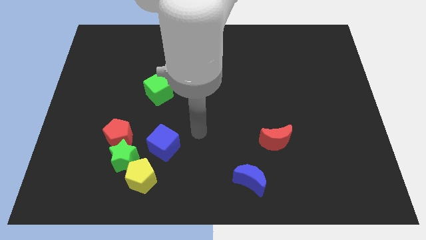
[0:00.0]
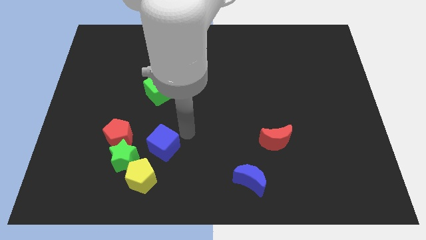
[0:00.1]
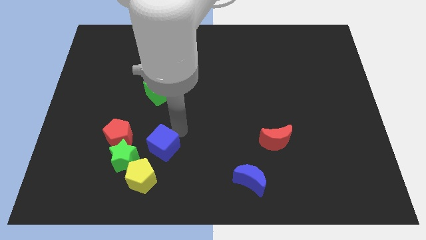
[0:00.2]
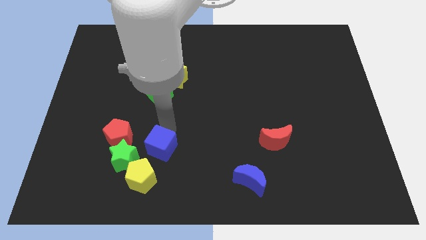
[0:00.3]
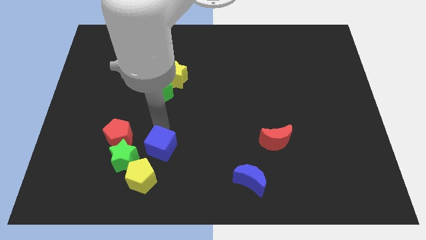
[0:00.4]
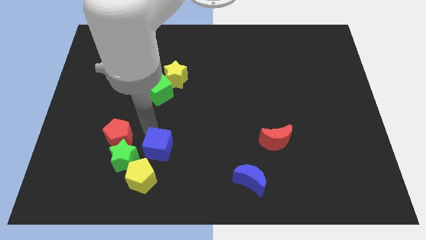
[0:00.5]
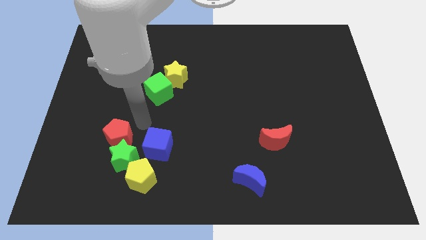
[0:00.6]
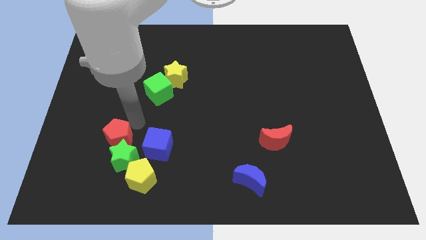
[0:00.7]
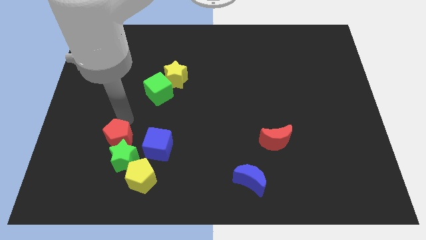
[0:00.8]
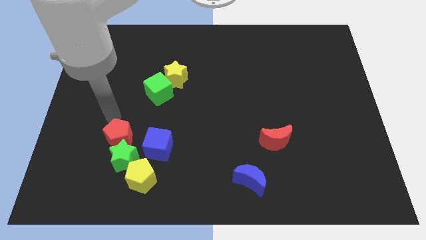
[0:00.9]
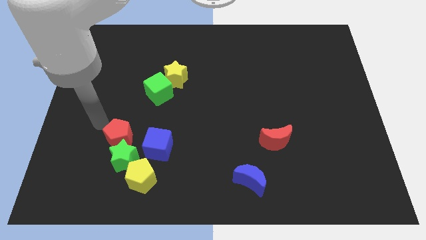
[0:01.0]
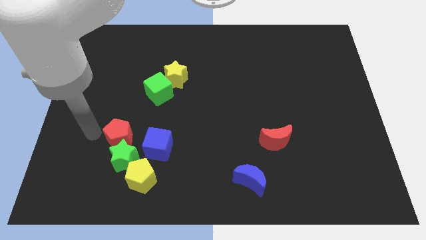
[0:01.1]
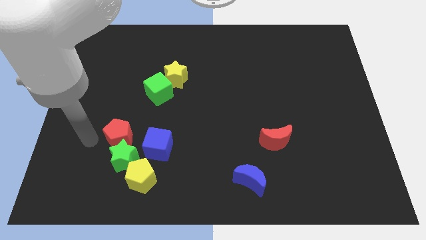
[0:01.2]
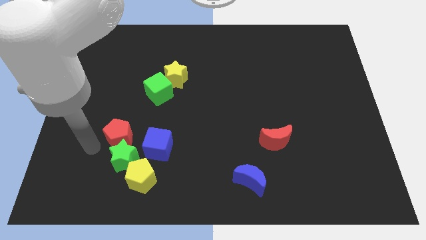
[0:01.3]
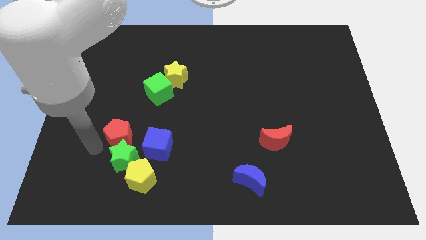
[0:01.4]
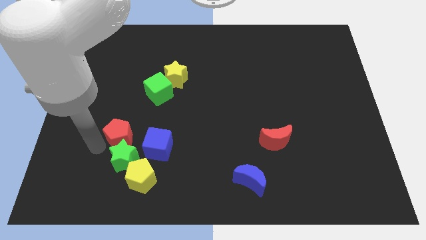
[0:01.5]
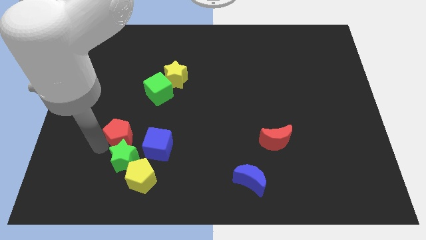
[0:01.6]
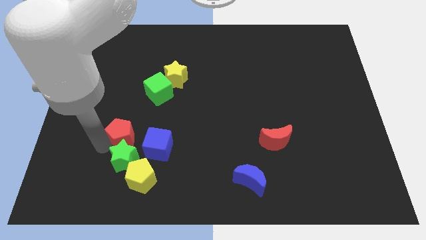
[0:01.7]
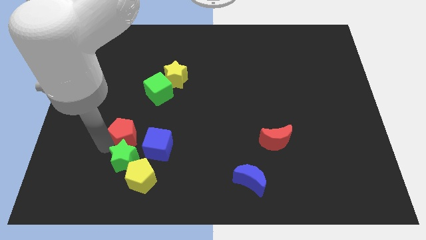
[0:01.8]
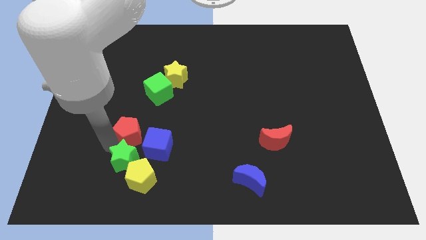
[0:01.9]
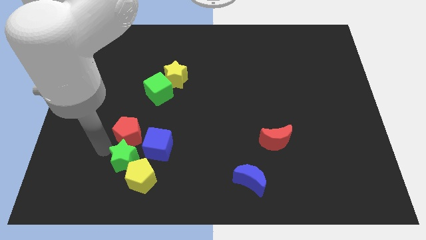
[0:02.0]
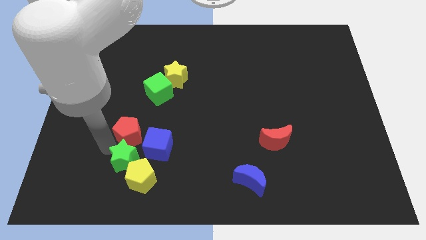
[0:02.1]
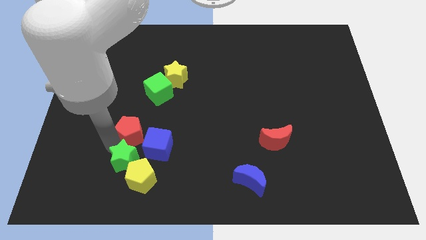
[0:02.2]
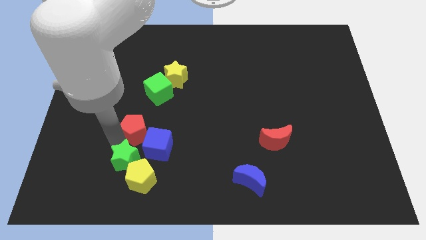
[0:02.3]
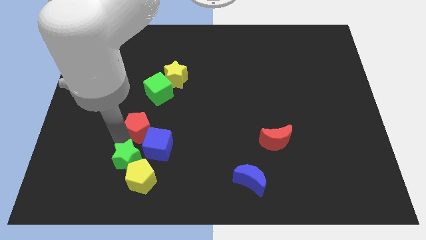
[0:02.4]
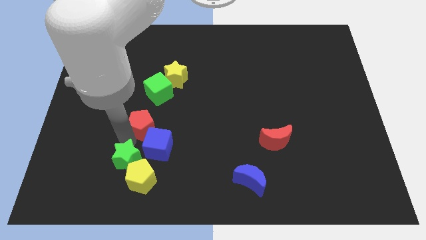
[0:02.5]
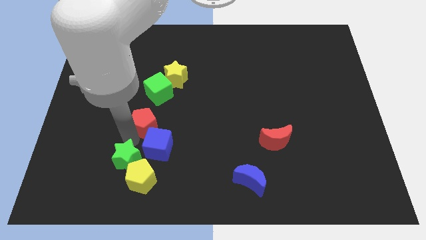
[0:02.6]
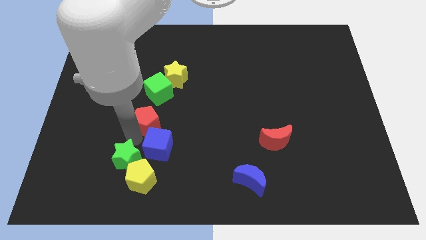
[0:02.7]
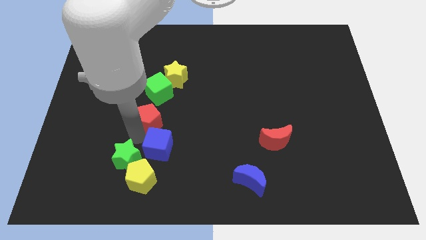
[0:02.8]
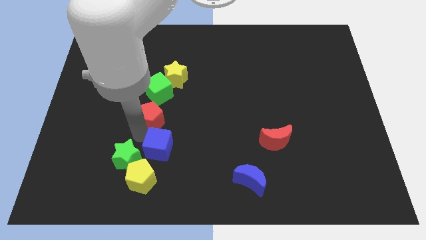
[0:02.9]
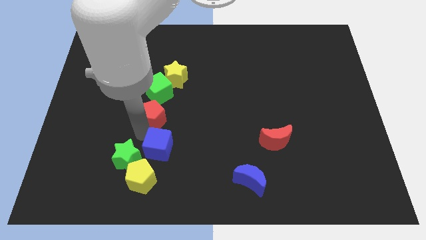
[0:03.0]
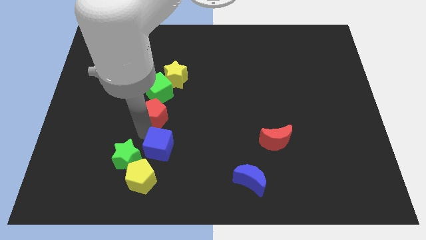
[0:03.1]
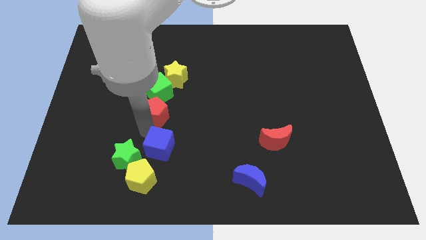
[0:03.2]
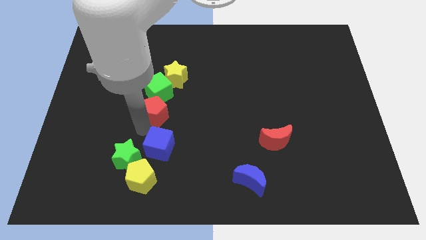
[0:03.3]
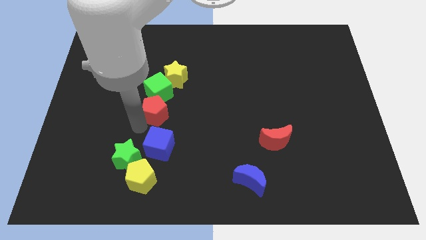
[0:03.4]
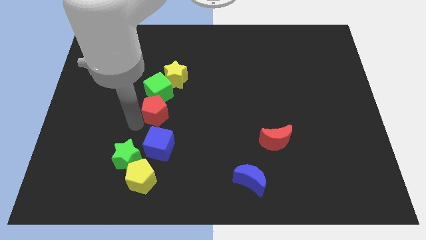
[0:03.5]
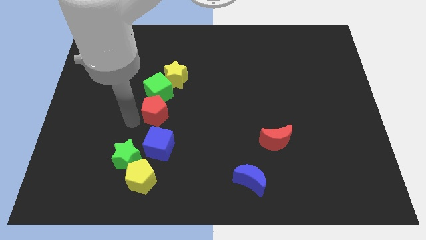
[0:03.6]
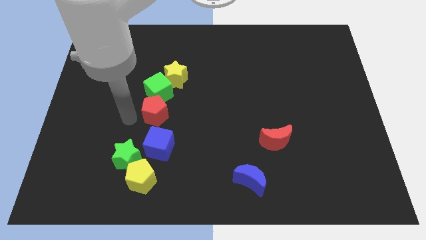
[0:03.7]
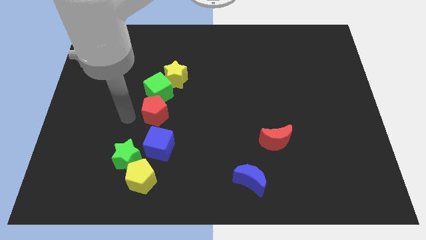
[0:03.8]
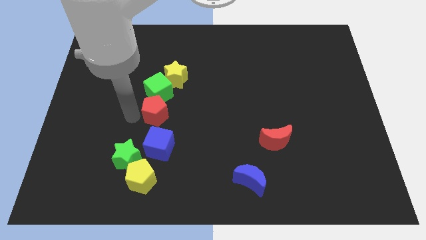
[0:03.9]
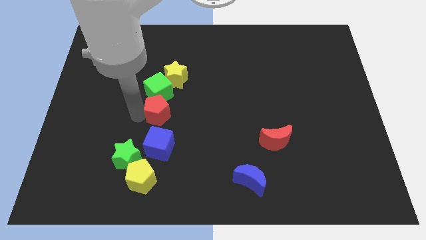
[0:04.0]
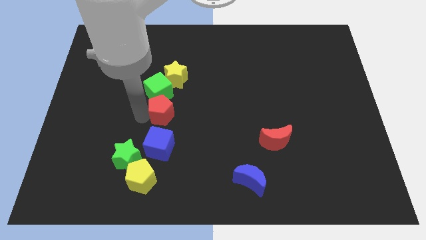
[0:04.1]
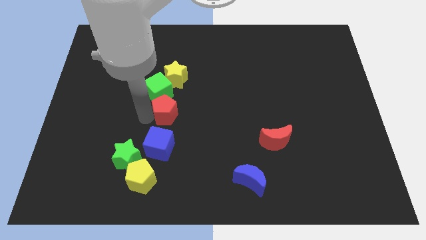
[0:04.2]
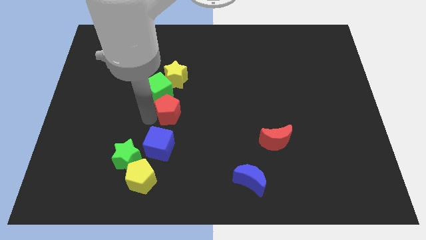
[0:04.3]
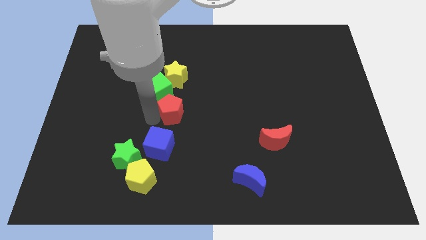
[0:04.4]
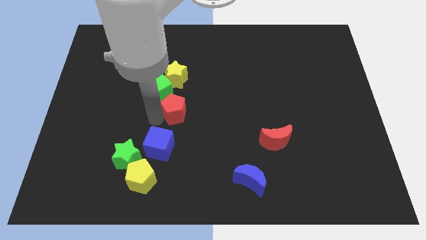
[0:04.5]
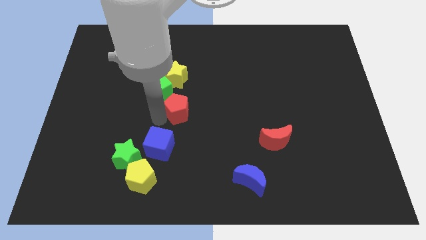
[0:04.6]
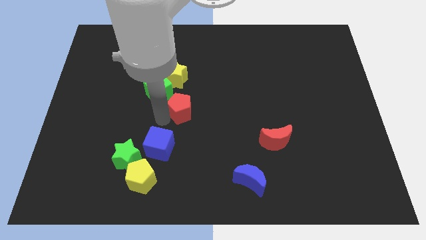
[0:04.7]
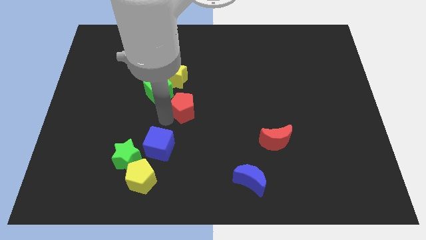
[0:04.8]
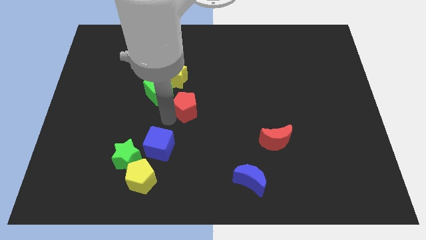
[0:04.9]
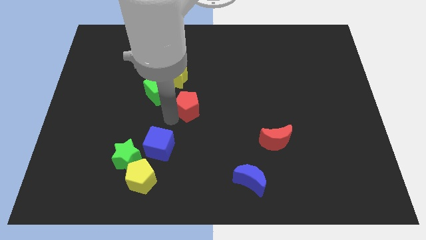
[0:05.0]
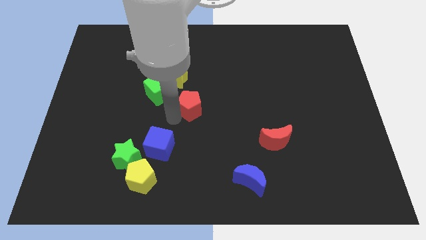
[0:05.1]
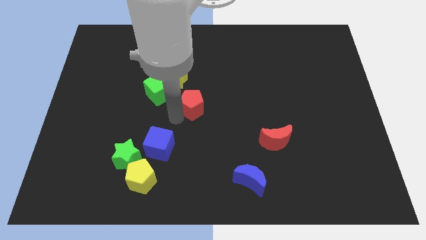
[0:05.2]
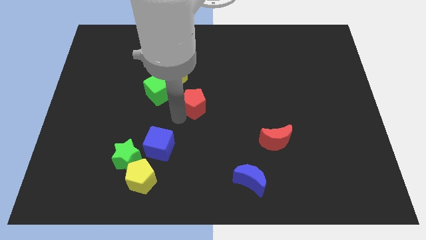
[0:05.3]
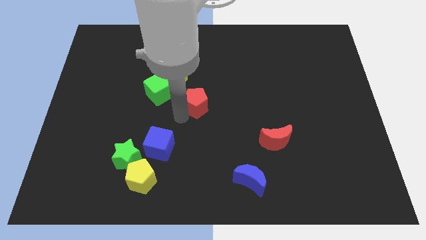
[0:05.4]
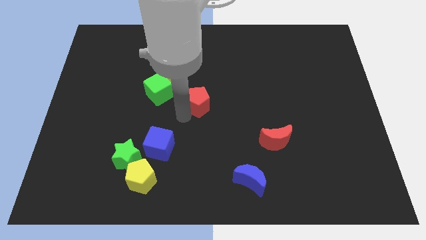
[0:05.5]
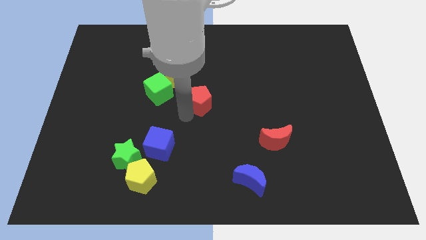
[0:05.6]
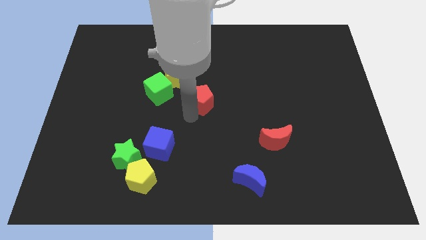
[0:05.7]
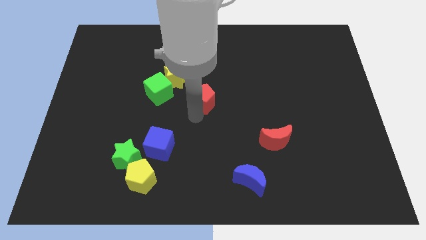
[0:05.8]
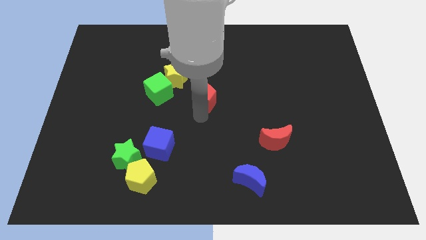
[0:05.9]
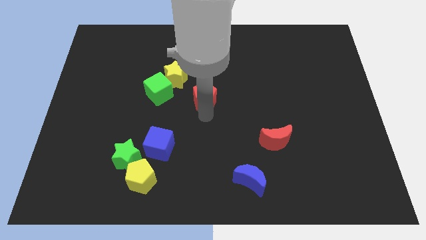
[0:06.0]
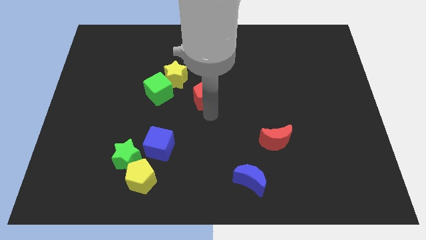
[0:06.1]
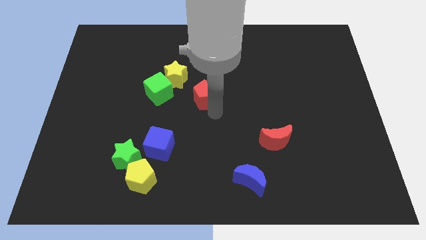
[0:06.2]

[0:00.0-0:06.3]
move the red pentagon diagonally up and to the right

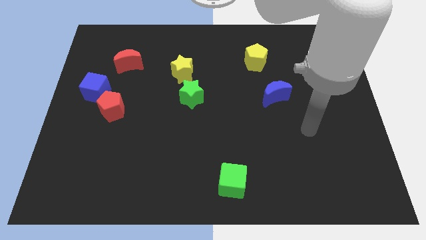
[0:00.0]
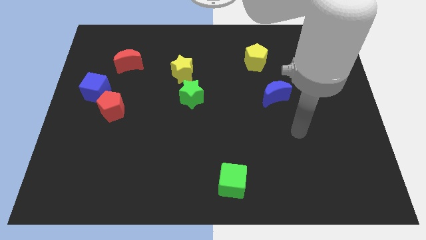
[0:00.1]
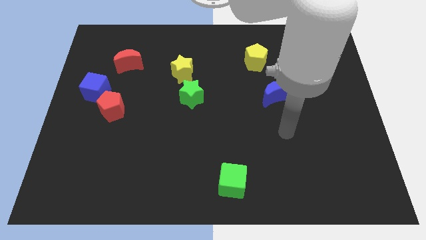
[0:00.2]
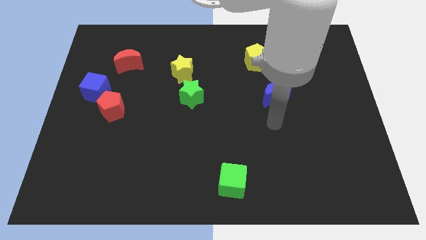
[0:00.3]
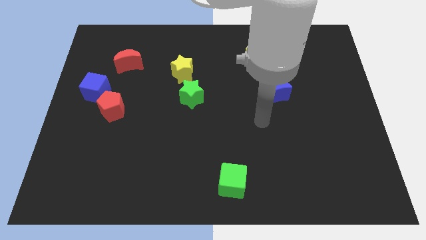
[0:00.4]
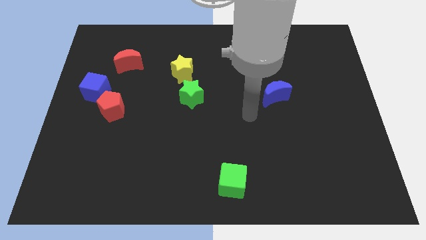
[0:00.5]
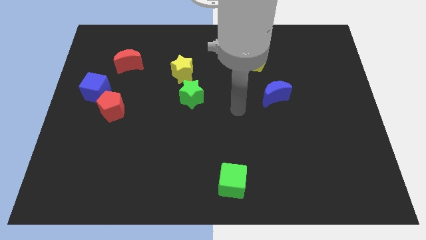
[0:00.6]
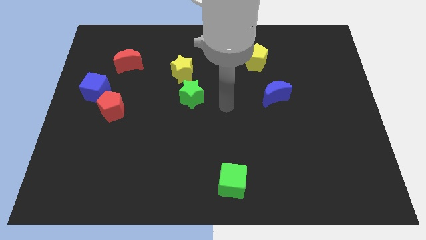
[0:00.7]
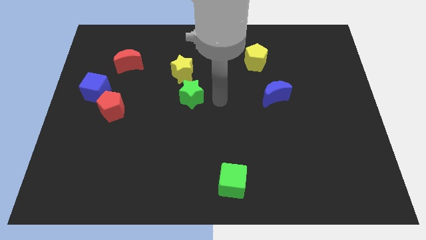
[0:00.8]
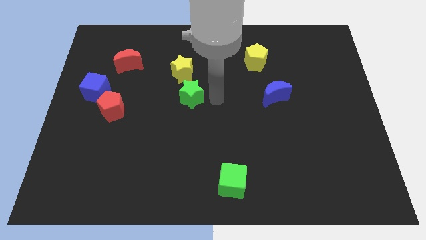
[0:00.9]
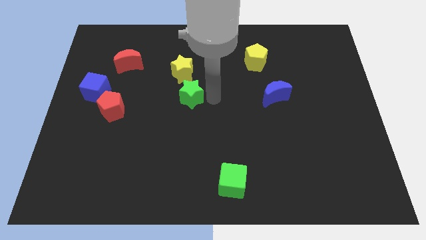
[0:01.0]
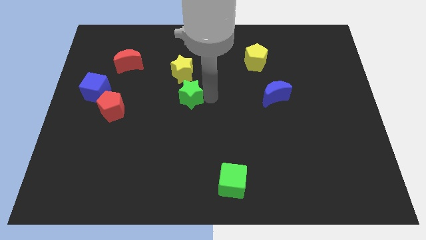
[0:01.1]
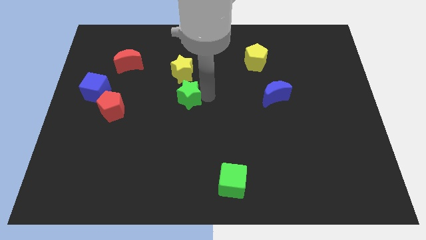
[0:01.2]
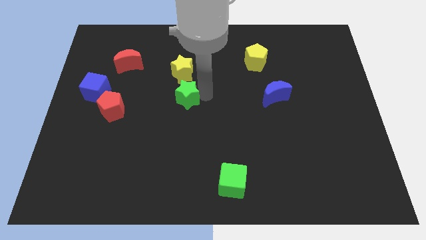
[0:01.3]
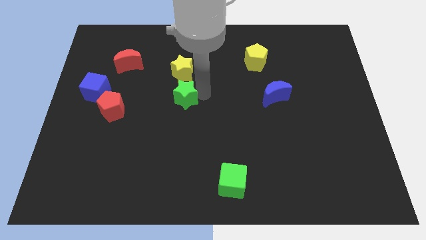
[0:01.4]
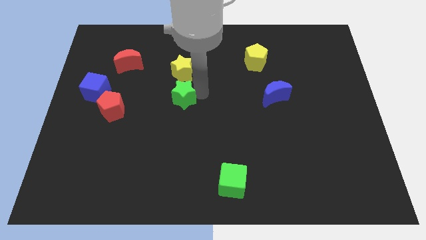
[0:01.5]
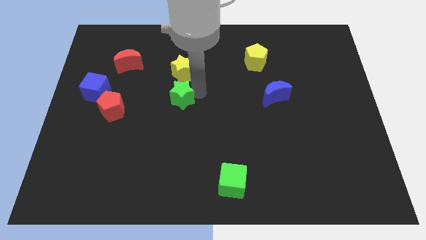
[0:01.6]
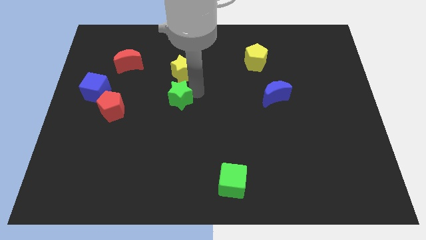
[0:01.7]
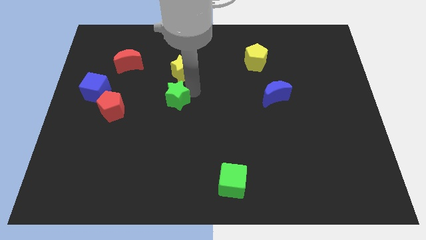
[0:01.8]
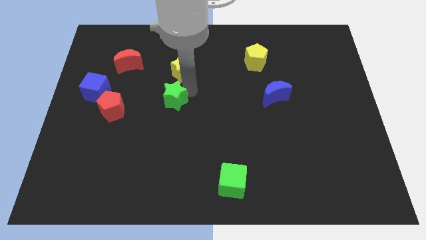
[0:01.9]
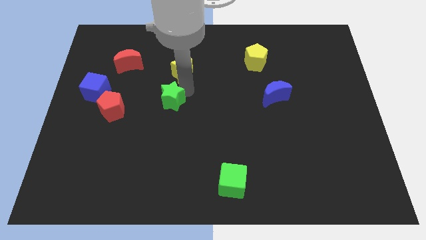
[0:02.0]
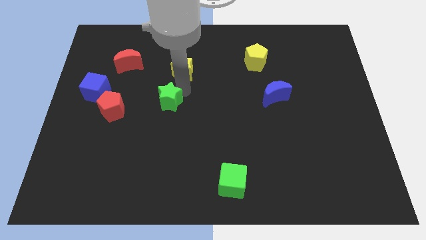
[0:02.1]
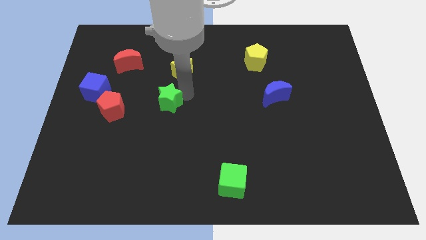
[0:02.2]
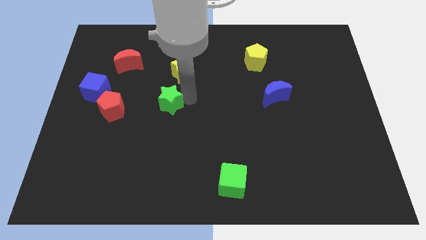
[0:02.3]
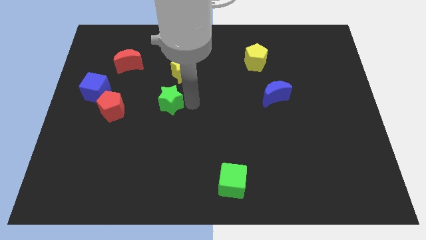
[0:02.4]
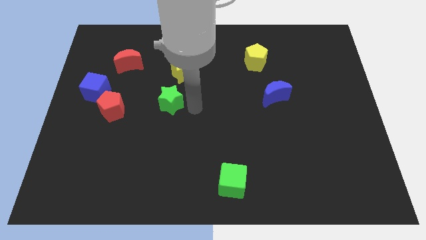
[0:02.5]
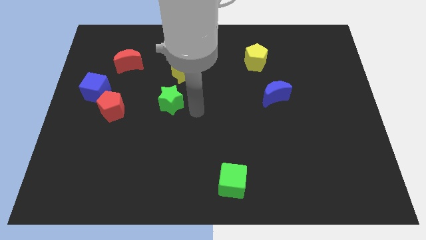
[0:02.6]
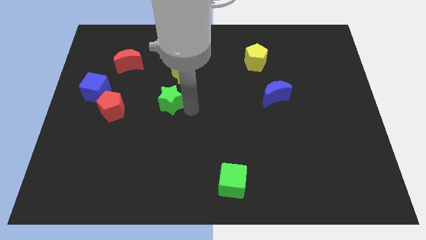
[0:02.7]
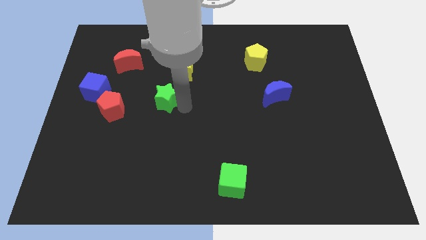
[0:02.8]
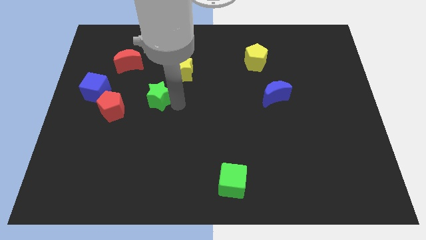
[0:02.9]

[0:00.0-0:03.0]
move the green star left slightly
